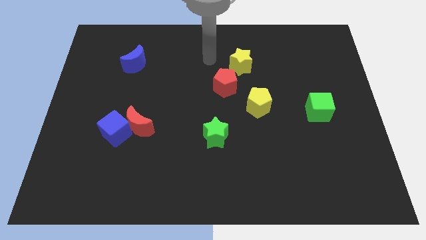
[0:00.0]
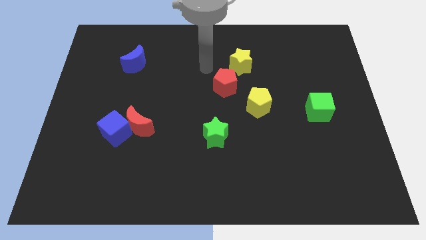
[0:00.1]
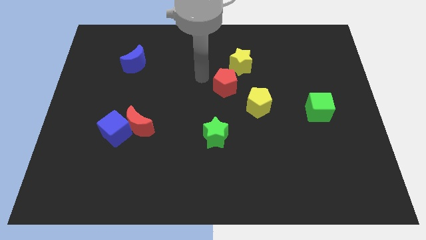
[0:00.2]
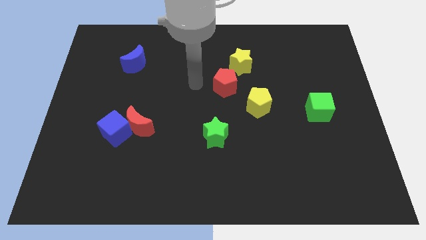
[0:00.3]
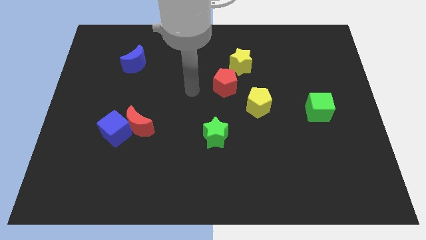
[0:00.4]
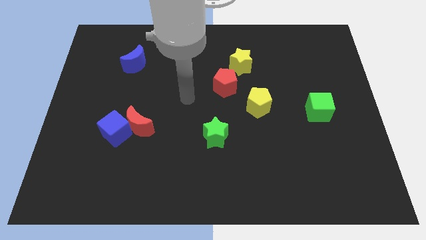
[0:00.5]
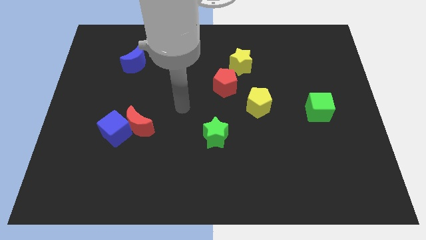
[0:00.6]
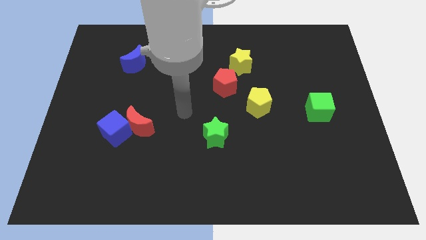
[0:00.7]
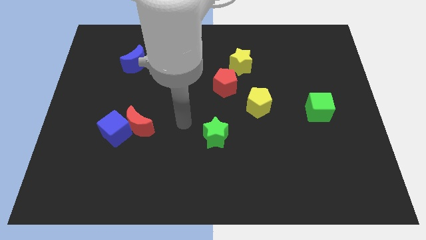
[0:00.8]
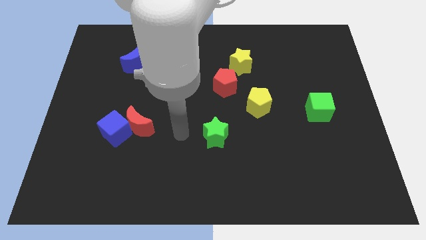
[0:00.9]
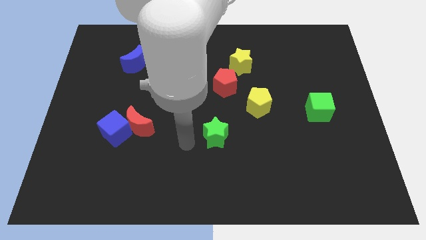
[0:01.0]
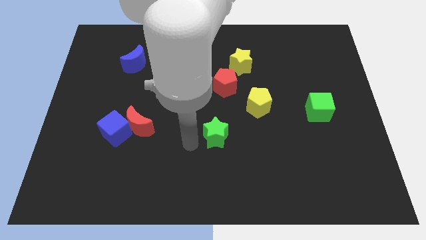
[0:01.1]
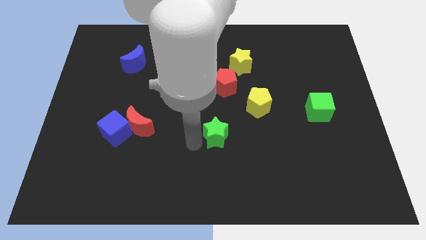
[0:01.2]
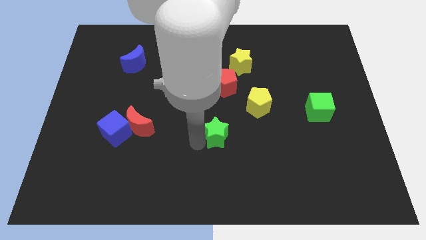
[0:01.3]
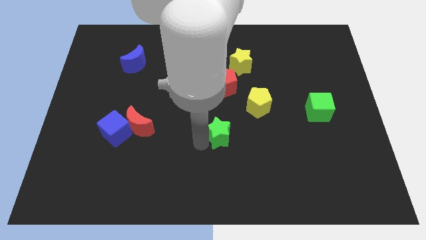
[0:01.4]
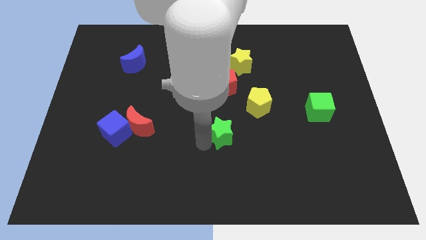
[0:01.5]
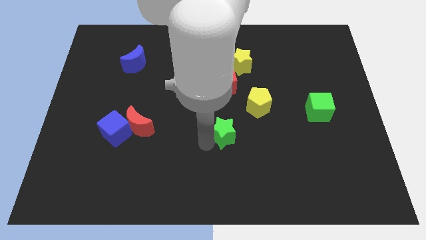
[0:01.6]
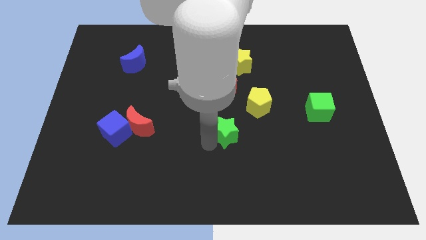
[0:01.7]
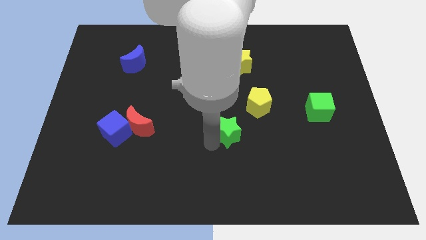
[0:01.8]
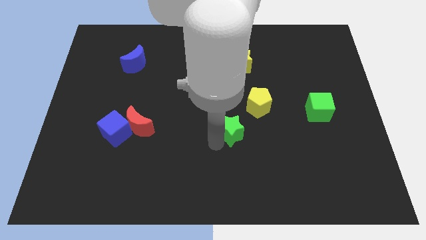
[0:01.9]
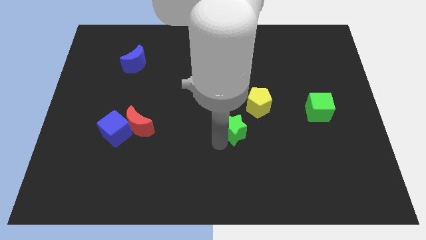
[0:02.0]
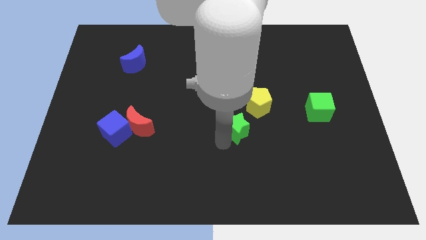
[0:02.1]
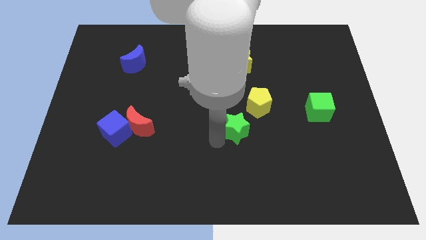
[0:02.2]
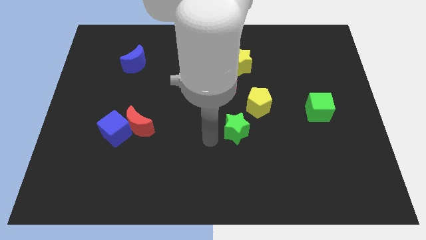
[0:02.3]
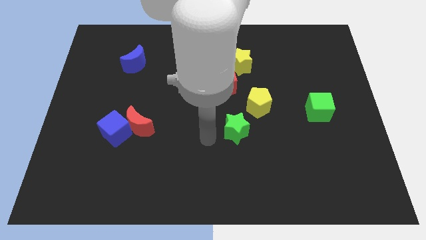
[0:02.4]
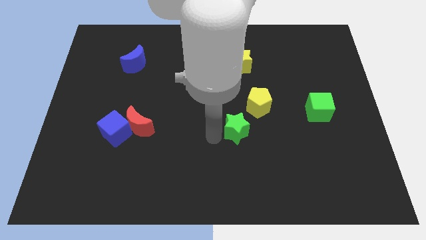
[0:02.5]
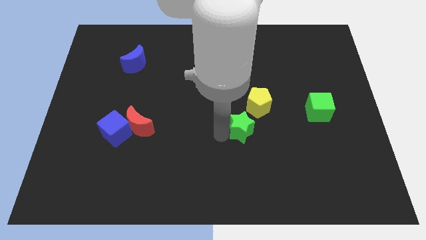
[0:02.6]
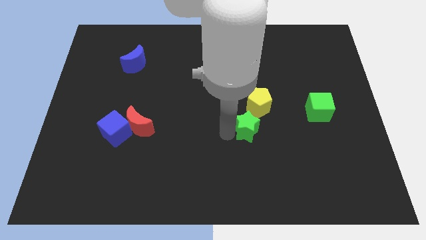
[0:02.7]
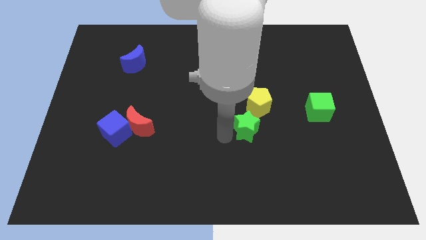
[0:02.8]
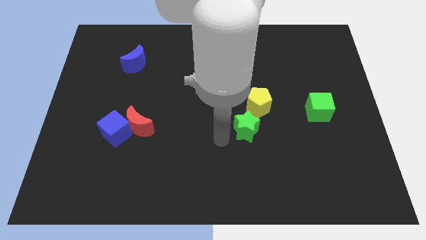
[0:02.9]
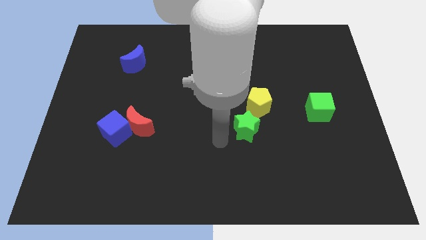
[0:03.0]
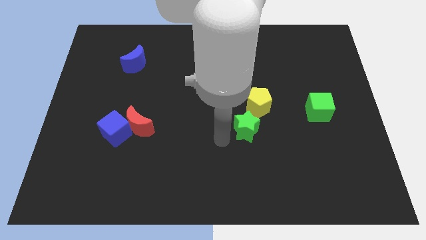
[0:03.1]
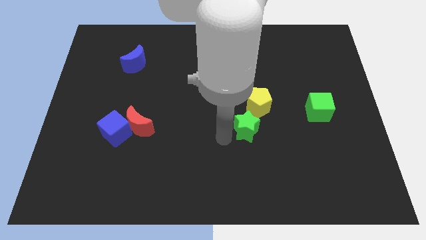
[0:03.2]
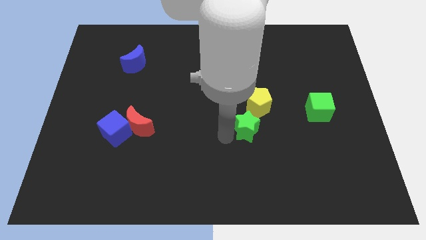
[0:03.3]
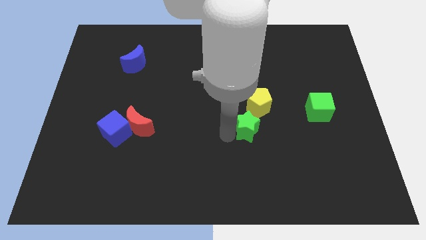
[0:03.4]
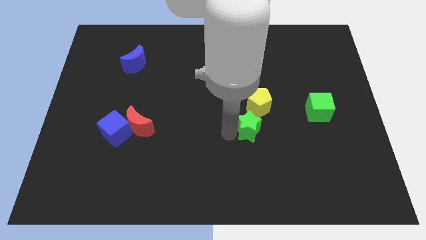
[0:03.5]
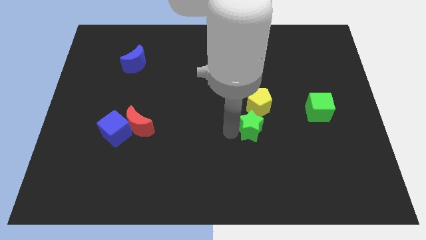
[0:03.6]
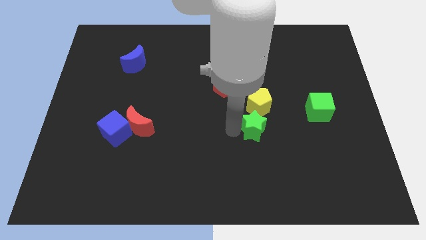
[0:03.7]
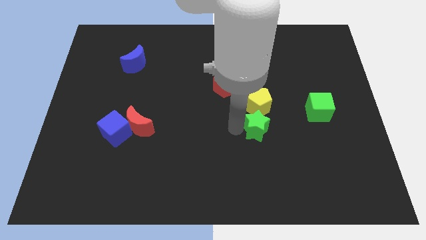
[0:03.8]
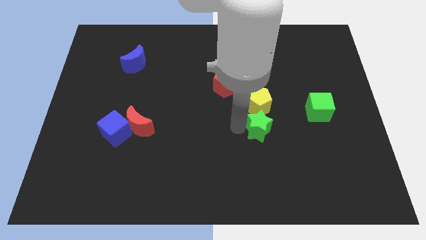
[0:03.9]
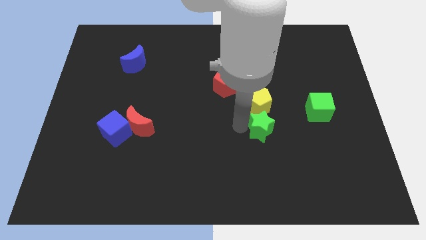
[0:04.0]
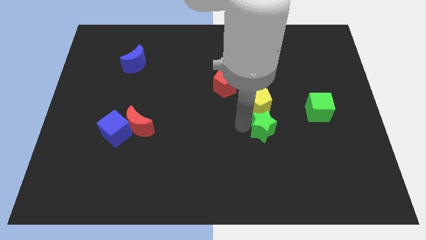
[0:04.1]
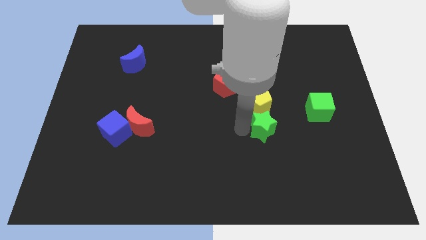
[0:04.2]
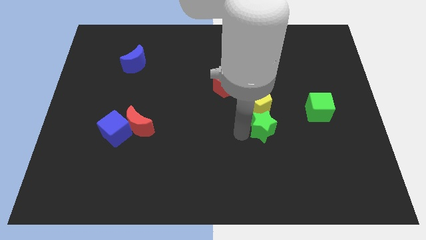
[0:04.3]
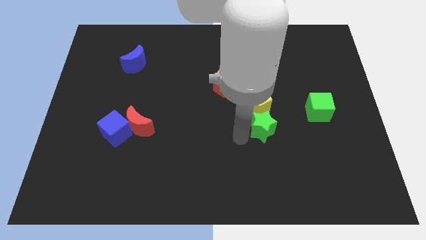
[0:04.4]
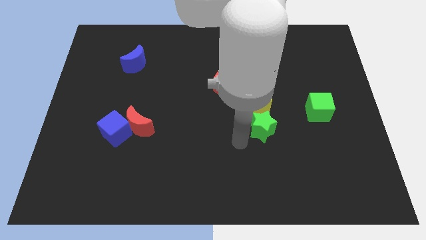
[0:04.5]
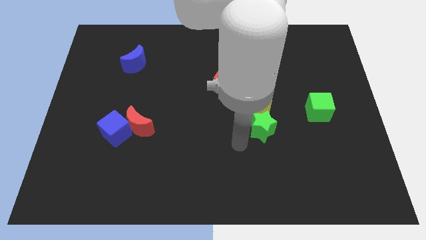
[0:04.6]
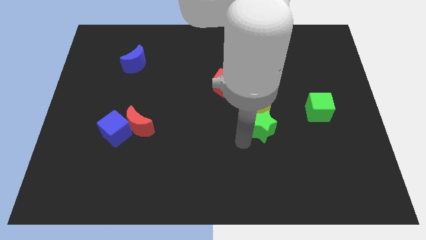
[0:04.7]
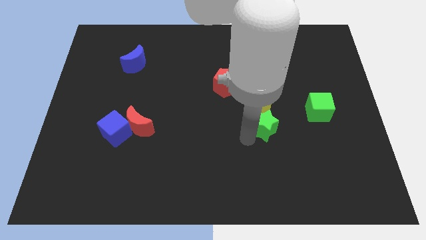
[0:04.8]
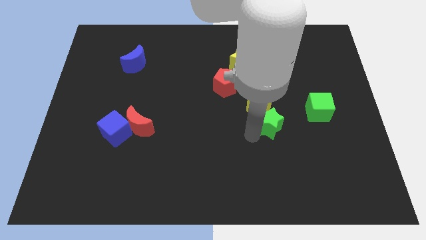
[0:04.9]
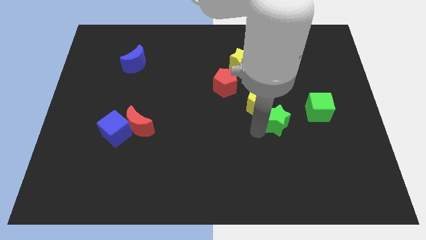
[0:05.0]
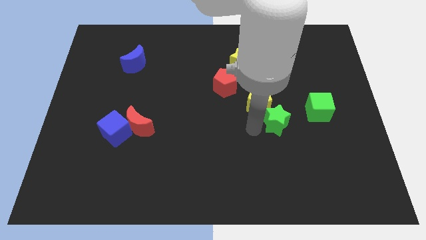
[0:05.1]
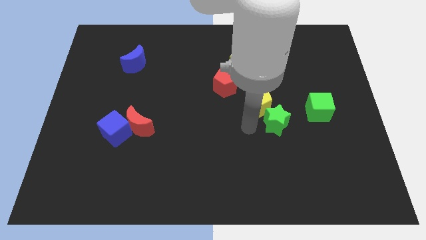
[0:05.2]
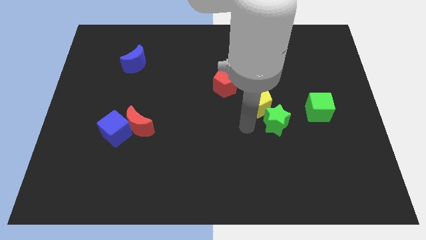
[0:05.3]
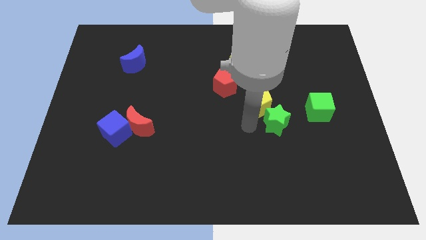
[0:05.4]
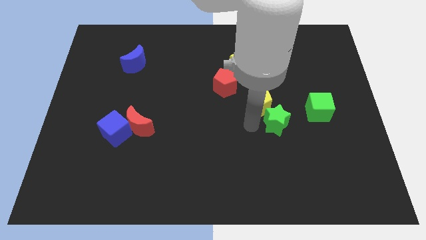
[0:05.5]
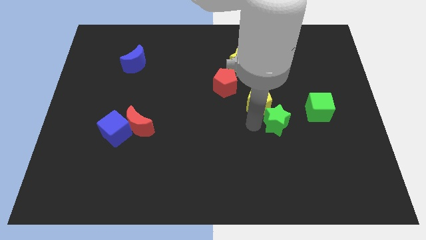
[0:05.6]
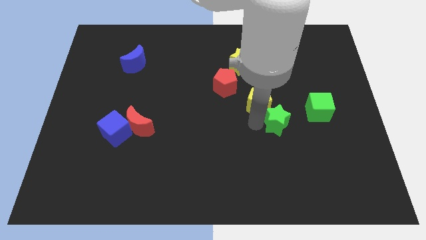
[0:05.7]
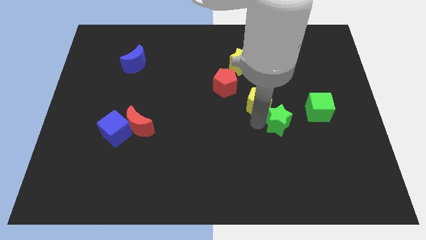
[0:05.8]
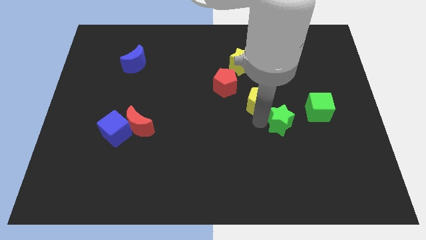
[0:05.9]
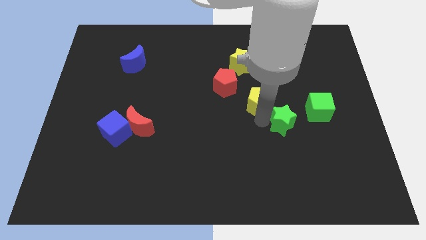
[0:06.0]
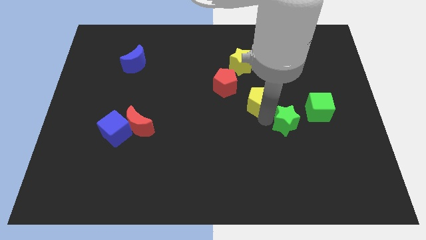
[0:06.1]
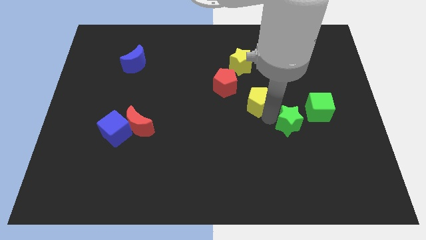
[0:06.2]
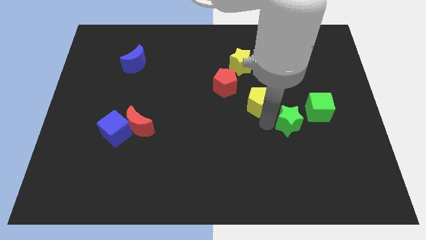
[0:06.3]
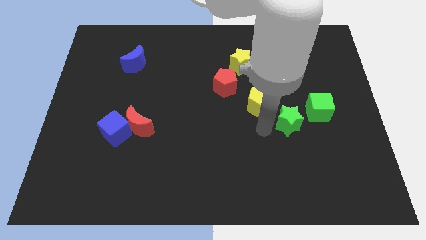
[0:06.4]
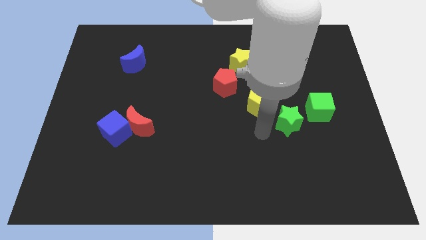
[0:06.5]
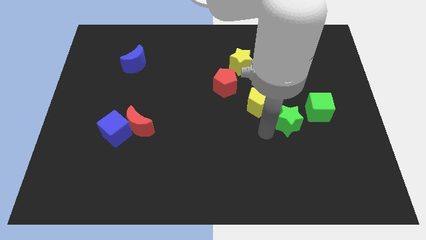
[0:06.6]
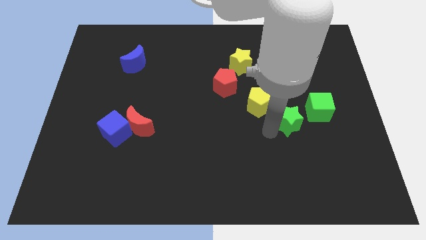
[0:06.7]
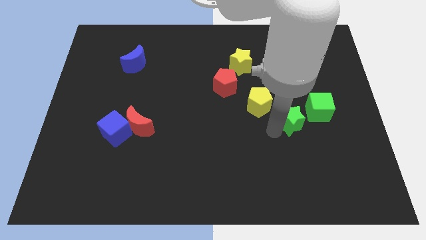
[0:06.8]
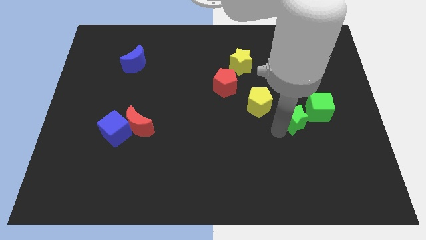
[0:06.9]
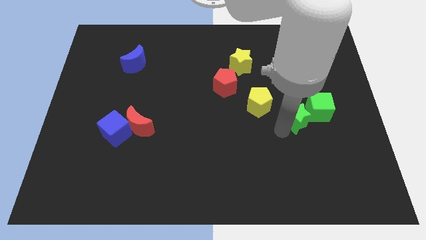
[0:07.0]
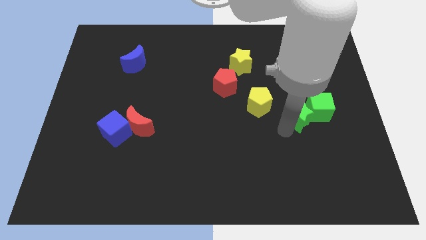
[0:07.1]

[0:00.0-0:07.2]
push the green star next to the green cube
